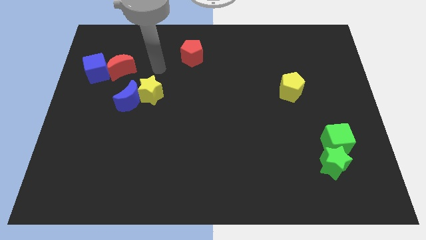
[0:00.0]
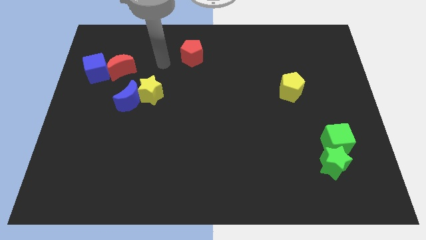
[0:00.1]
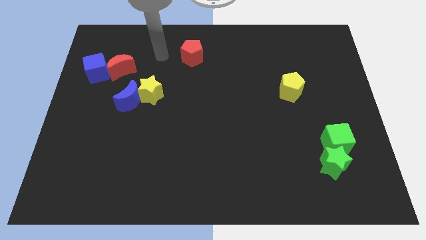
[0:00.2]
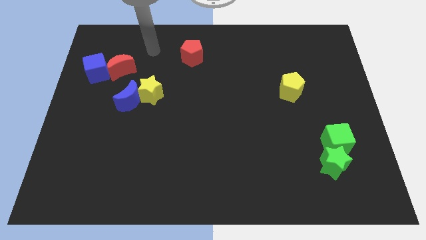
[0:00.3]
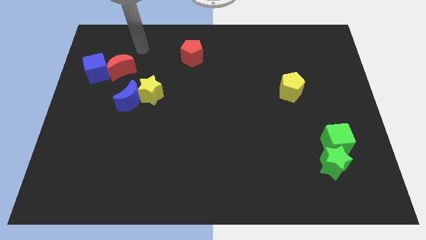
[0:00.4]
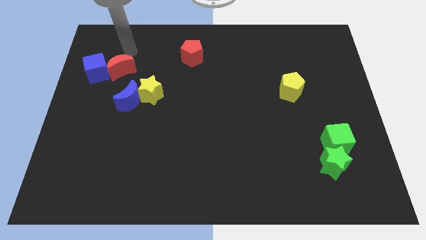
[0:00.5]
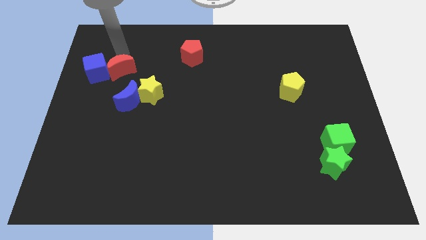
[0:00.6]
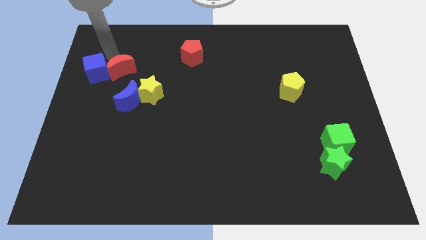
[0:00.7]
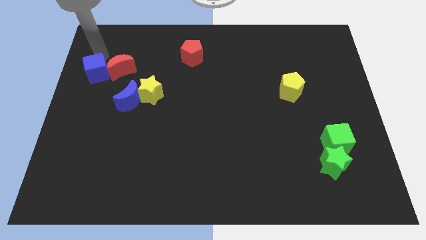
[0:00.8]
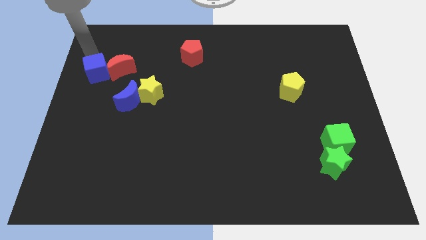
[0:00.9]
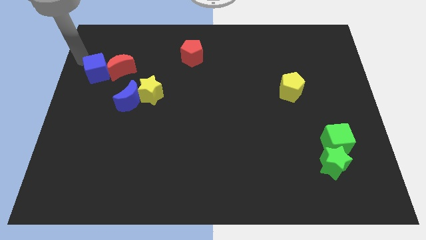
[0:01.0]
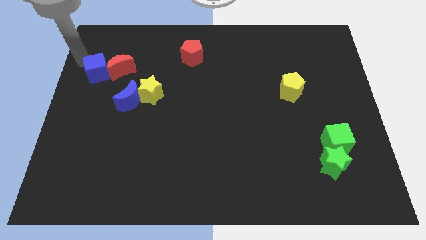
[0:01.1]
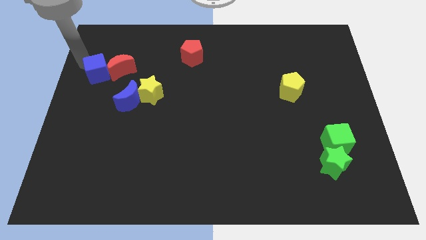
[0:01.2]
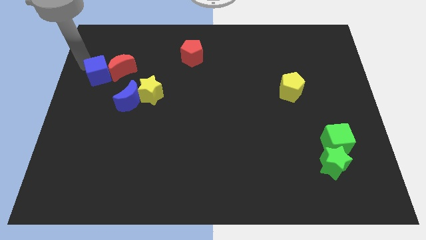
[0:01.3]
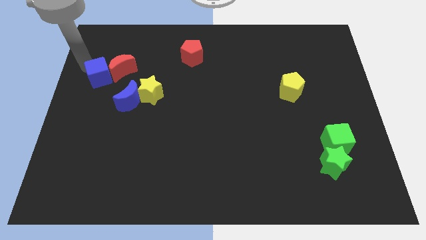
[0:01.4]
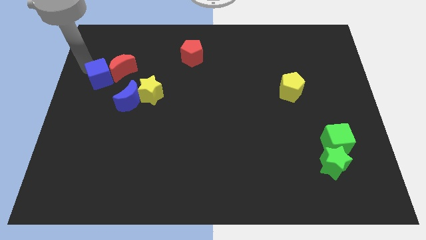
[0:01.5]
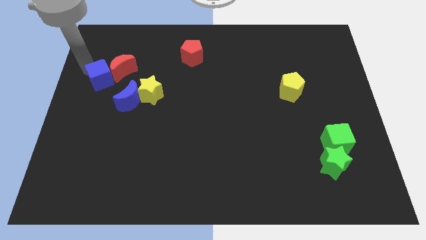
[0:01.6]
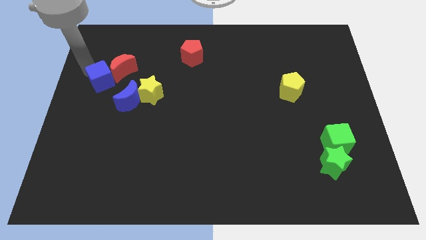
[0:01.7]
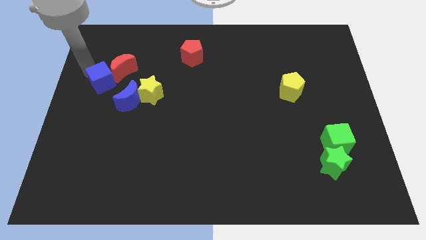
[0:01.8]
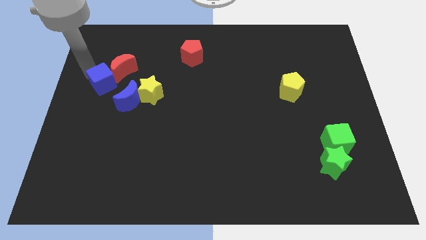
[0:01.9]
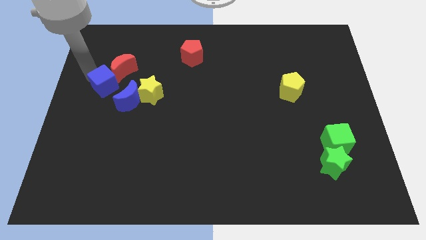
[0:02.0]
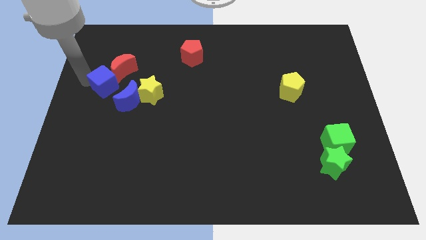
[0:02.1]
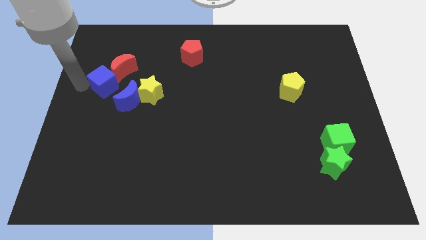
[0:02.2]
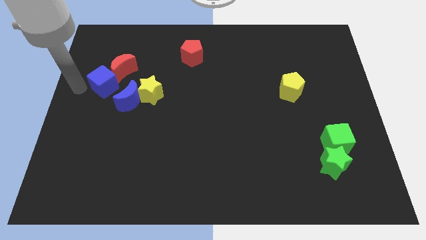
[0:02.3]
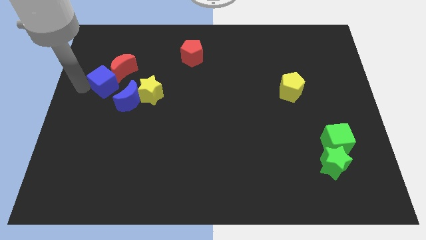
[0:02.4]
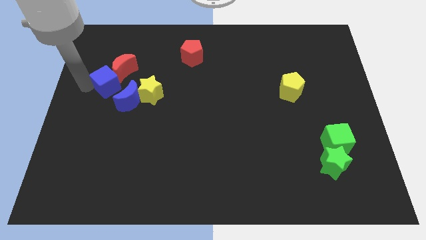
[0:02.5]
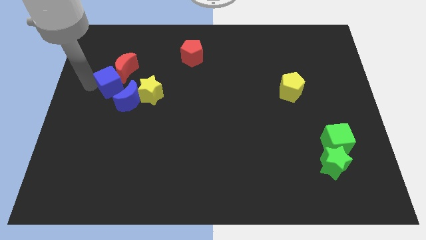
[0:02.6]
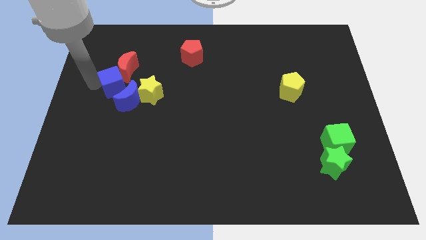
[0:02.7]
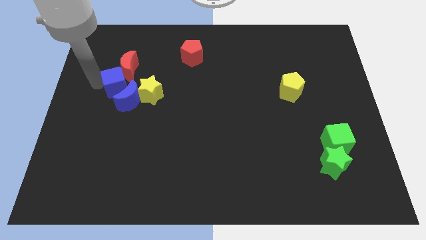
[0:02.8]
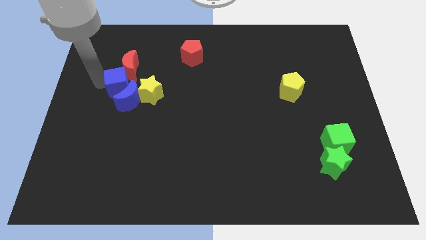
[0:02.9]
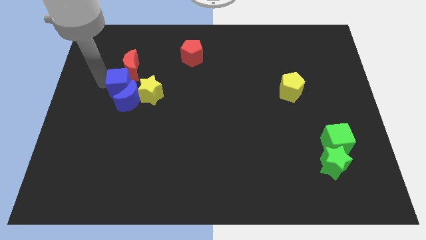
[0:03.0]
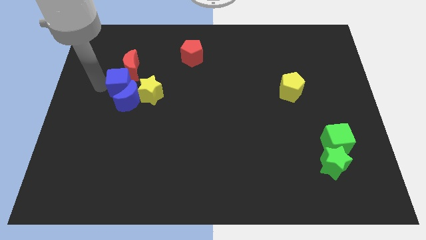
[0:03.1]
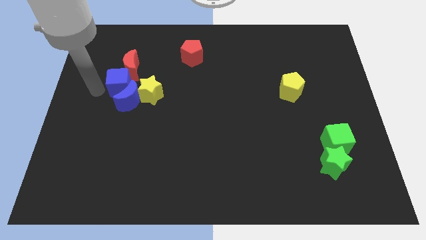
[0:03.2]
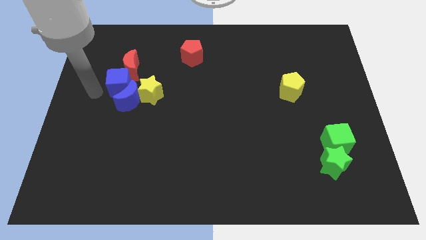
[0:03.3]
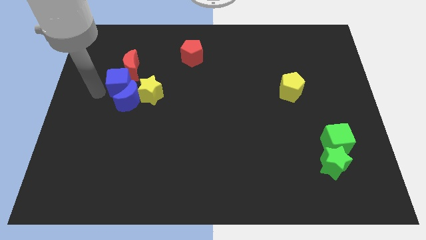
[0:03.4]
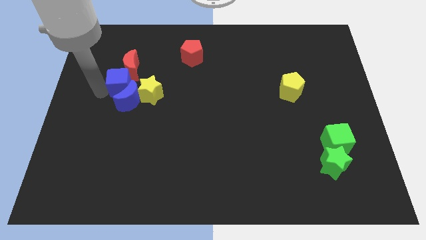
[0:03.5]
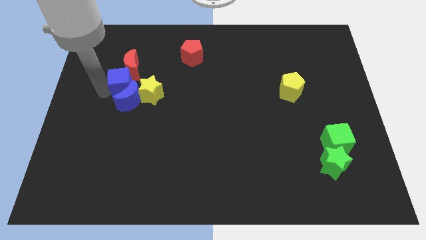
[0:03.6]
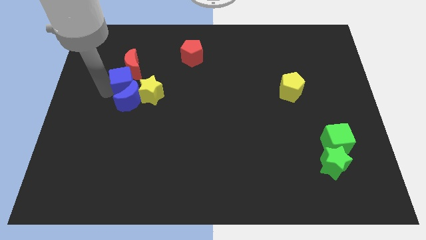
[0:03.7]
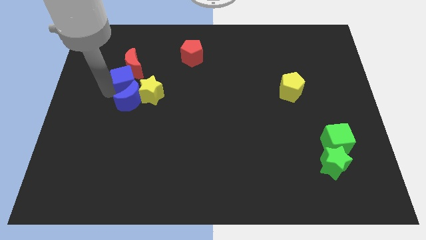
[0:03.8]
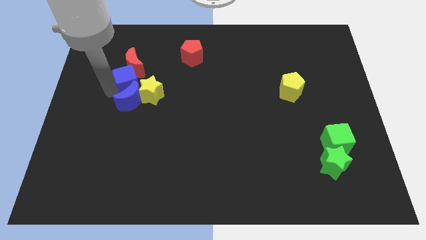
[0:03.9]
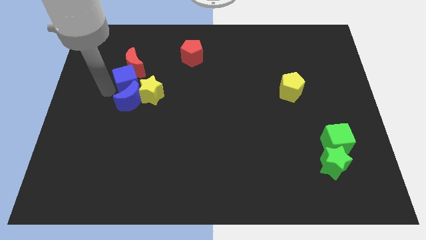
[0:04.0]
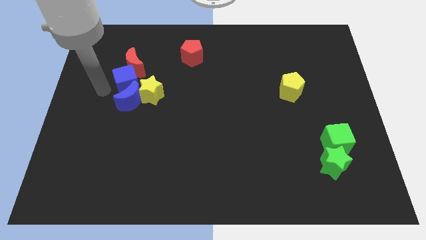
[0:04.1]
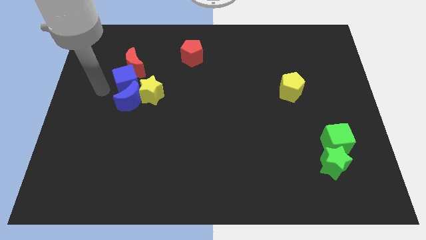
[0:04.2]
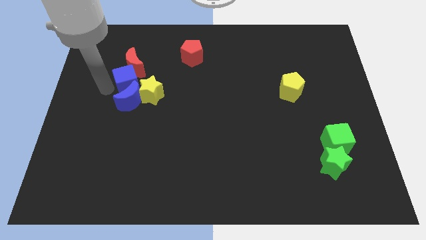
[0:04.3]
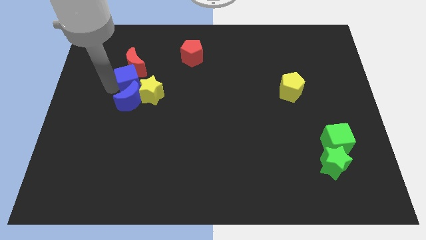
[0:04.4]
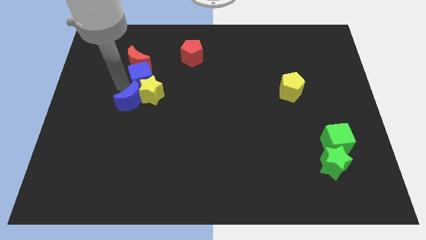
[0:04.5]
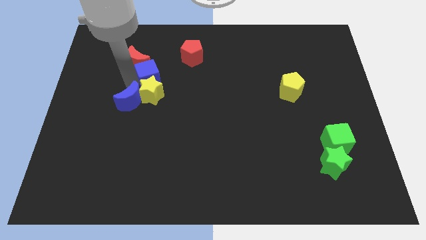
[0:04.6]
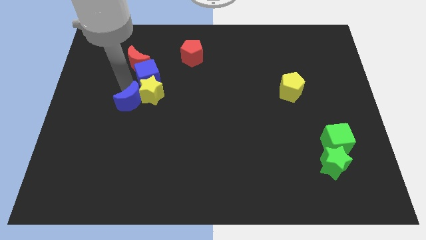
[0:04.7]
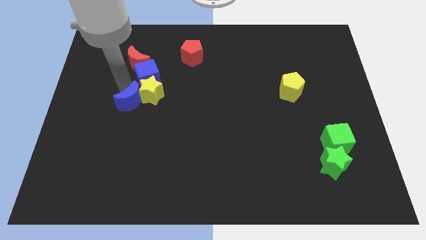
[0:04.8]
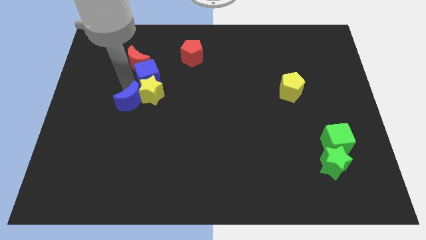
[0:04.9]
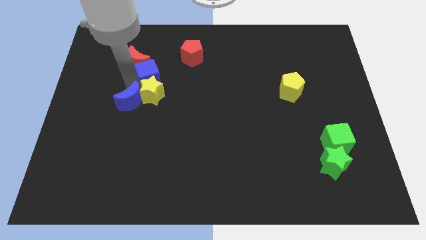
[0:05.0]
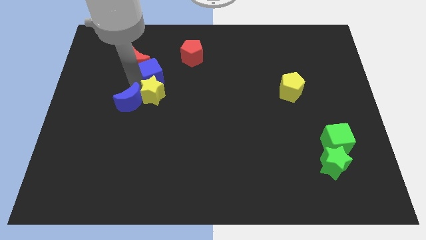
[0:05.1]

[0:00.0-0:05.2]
push the blue cube to the right of the red moon

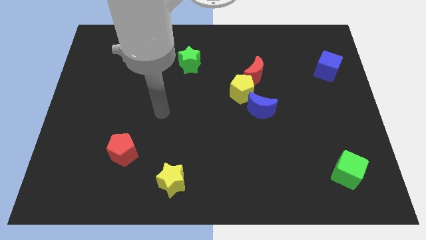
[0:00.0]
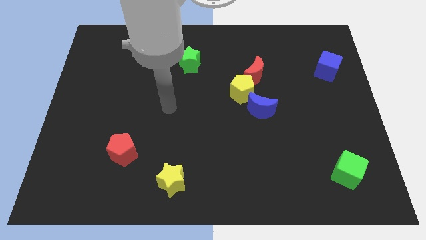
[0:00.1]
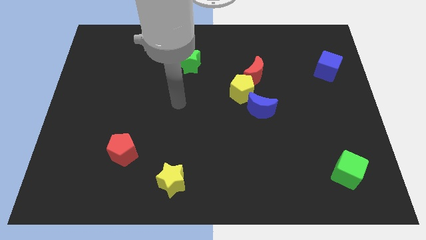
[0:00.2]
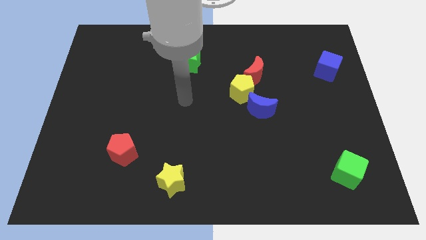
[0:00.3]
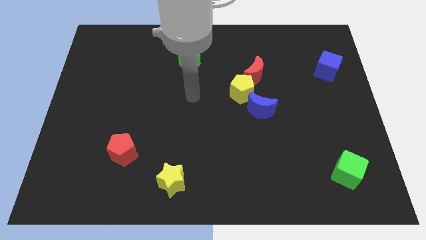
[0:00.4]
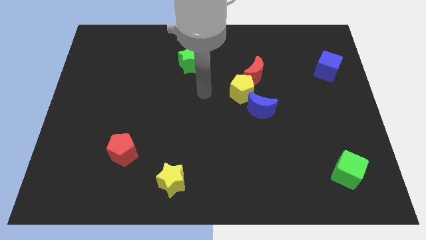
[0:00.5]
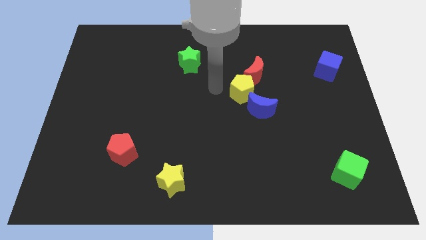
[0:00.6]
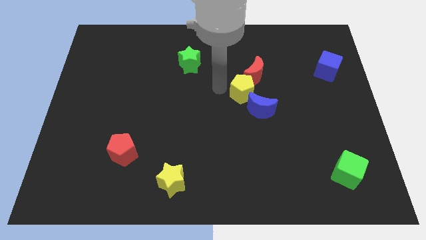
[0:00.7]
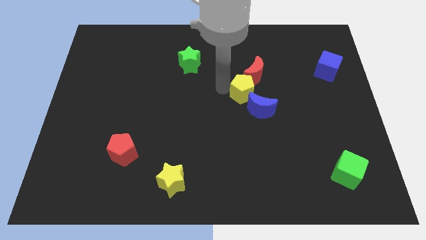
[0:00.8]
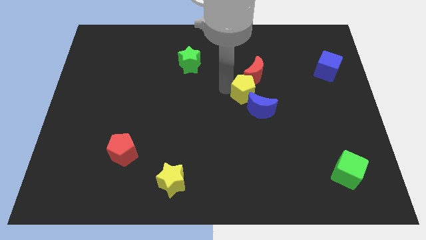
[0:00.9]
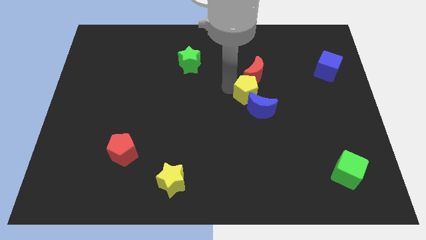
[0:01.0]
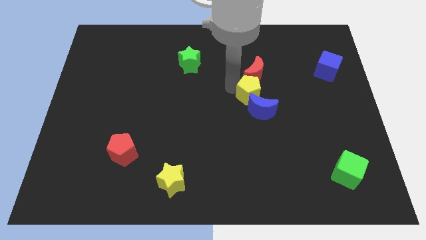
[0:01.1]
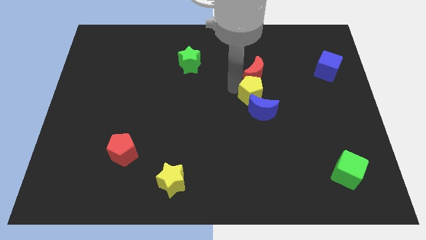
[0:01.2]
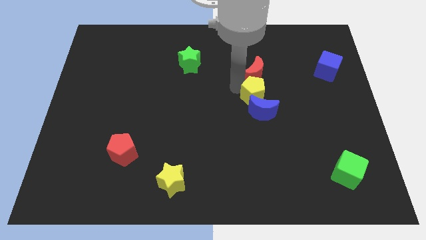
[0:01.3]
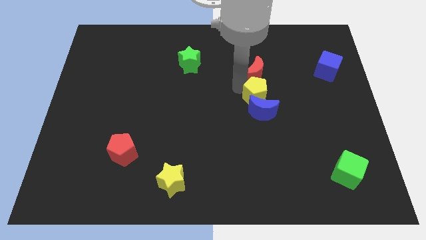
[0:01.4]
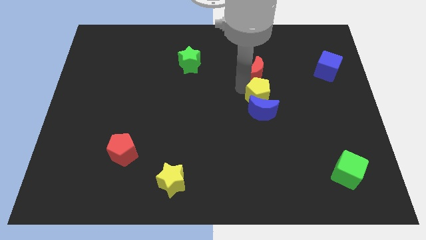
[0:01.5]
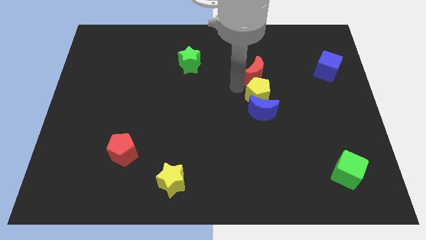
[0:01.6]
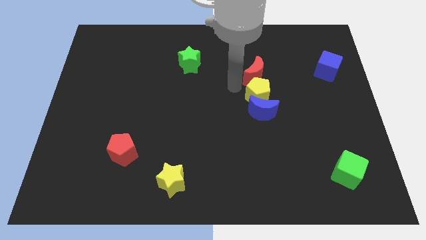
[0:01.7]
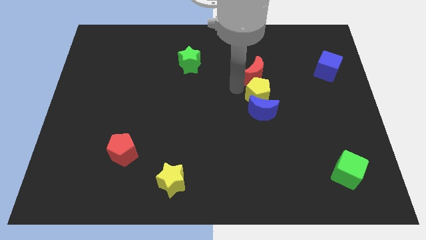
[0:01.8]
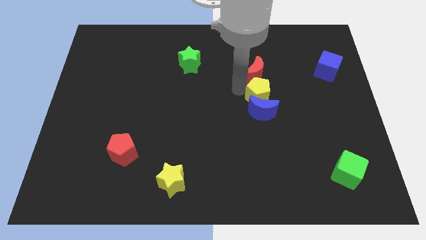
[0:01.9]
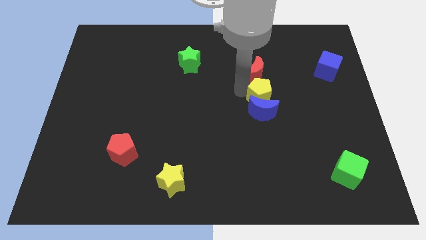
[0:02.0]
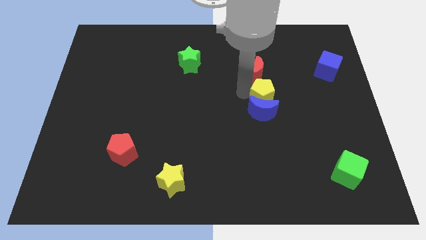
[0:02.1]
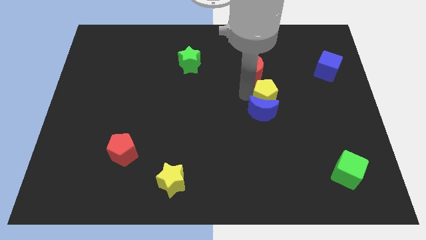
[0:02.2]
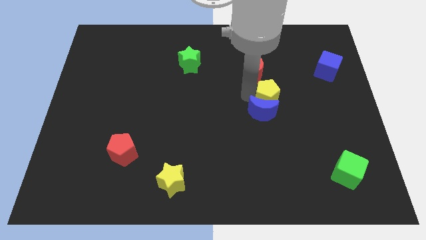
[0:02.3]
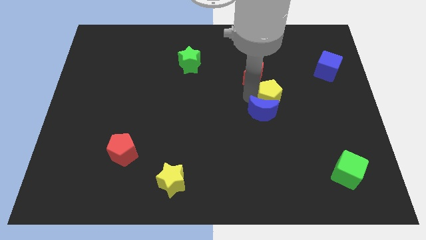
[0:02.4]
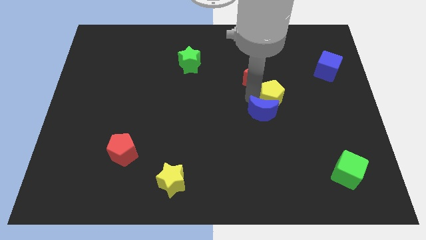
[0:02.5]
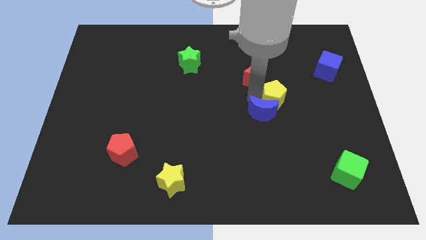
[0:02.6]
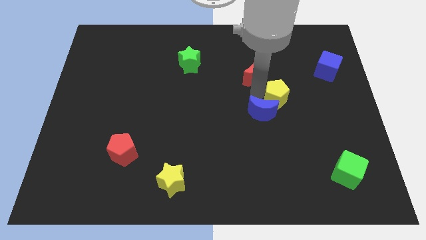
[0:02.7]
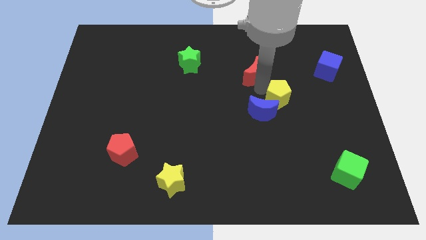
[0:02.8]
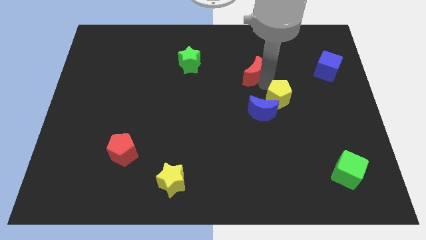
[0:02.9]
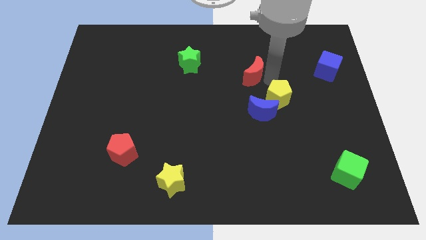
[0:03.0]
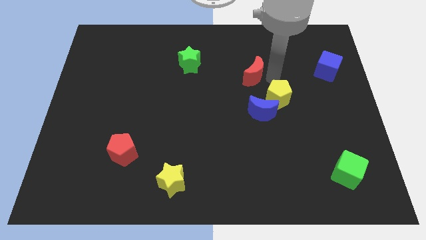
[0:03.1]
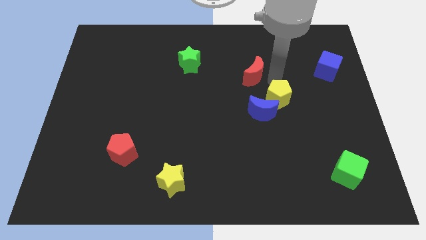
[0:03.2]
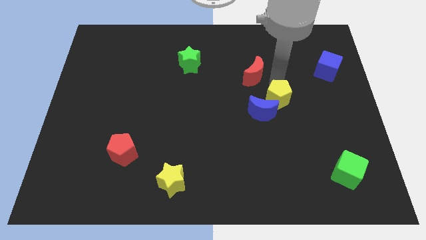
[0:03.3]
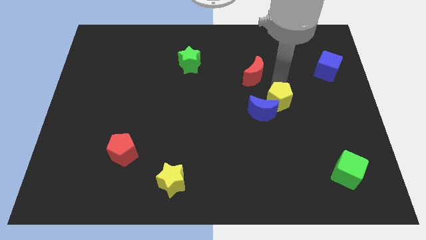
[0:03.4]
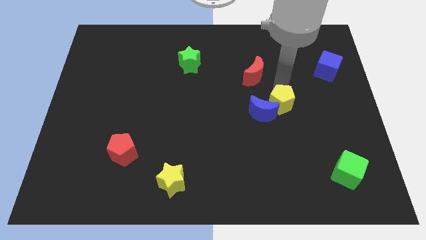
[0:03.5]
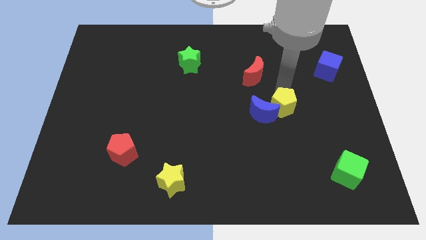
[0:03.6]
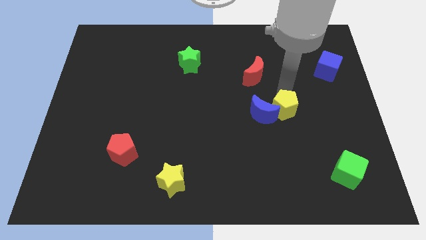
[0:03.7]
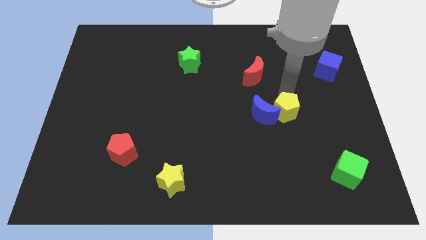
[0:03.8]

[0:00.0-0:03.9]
push the yellow pentagon to the bottom right of the blue moon
